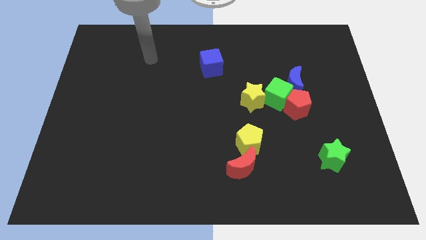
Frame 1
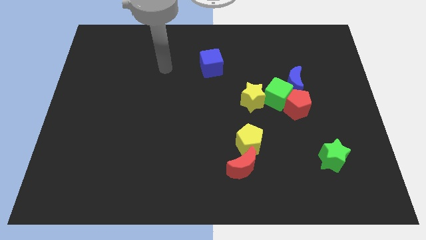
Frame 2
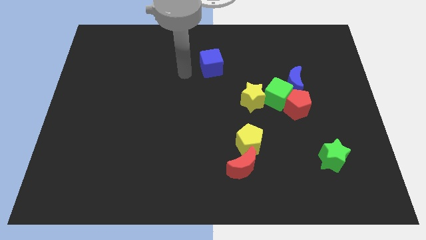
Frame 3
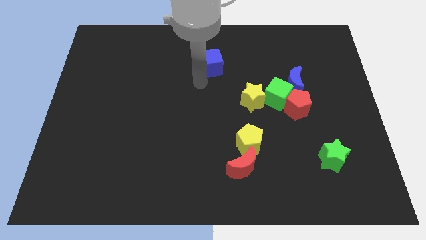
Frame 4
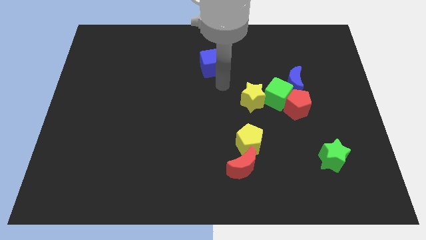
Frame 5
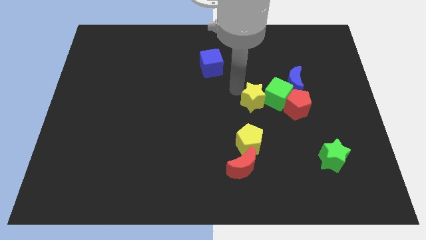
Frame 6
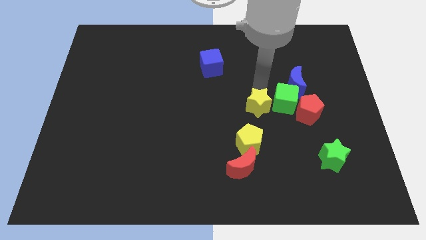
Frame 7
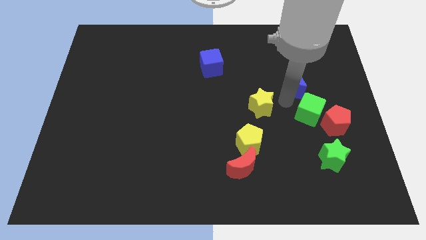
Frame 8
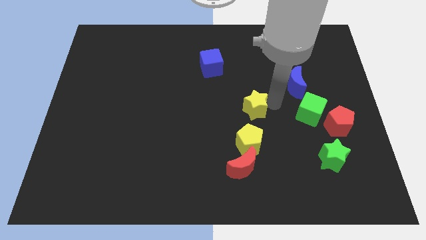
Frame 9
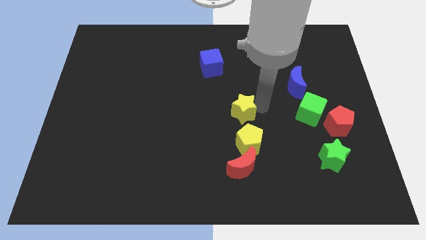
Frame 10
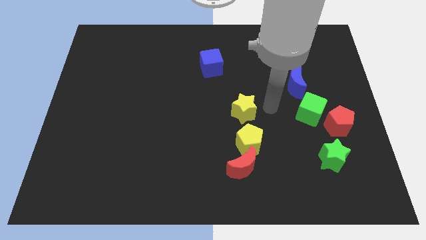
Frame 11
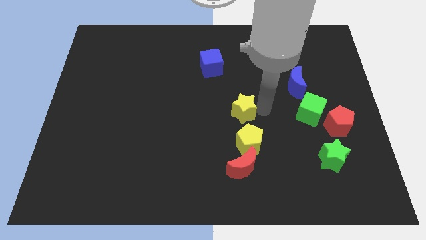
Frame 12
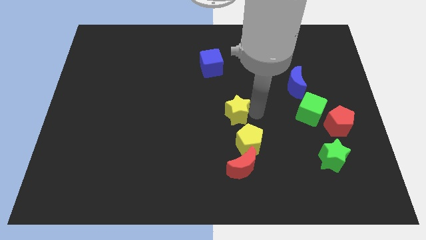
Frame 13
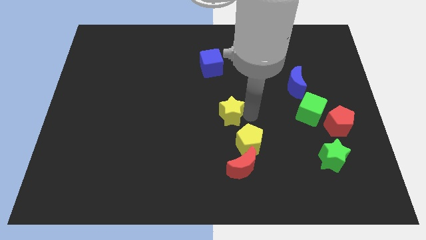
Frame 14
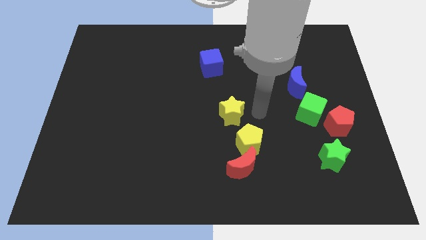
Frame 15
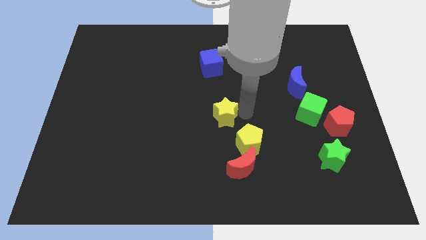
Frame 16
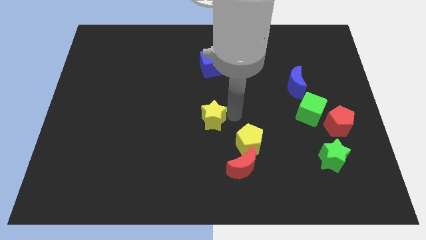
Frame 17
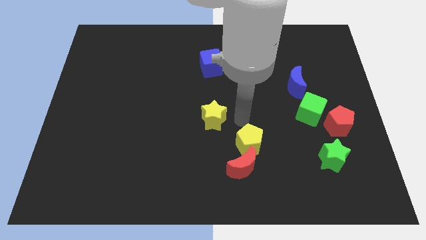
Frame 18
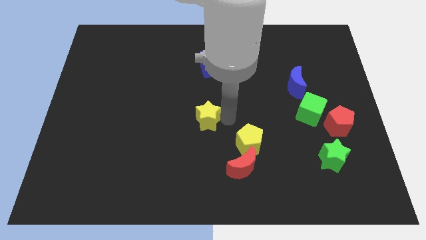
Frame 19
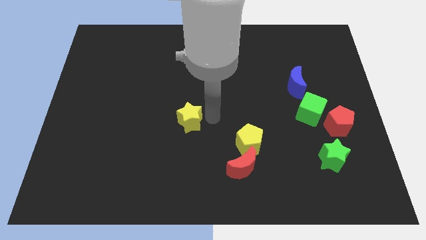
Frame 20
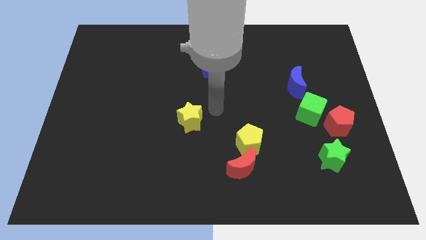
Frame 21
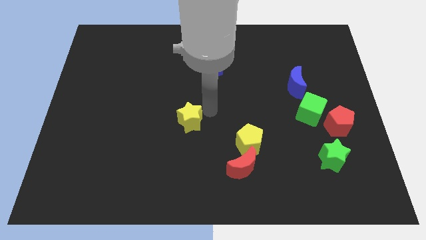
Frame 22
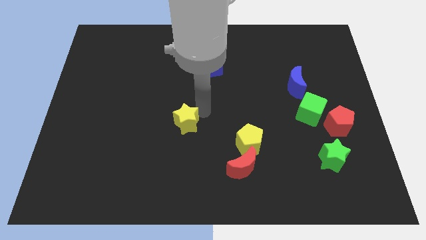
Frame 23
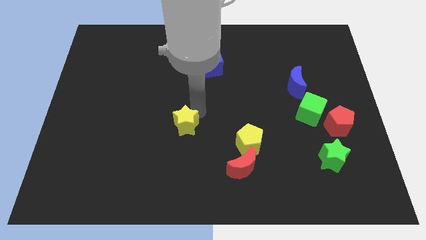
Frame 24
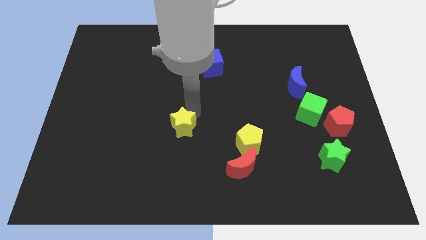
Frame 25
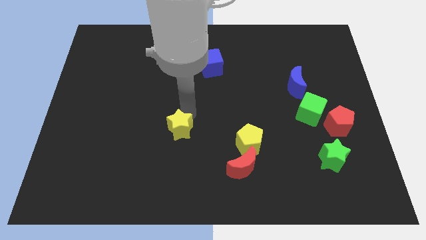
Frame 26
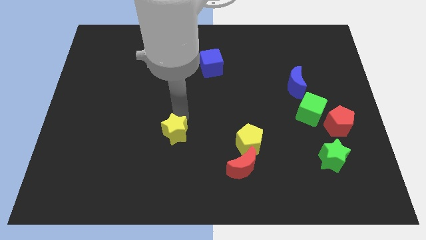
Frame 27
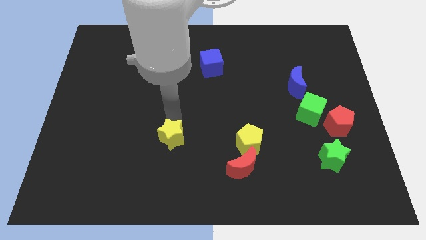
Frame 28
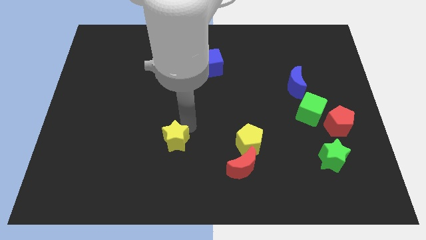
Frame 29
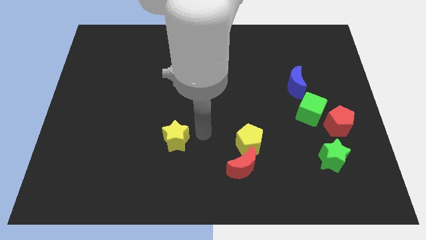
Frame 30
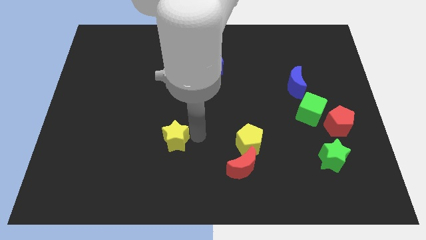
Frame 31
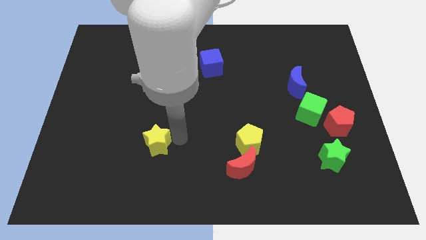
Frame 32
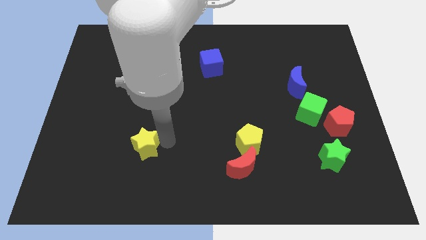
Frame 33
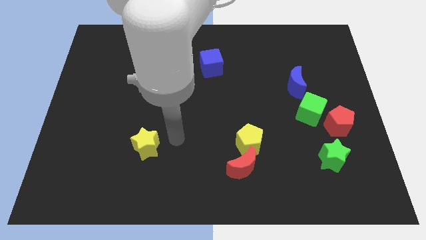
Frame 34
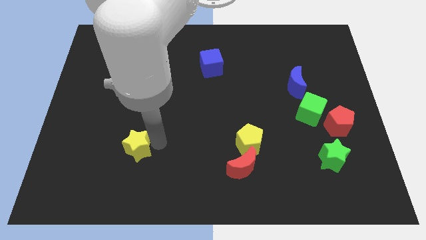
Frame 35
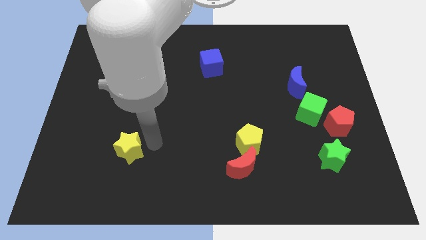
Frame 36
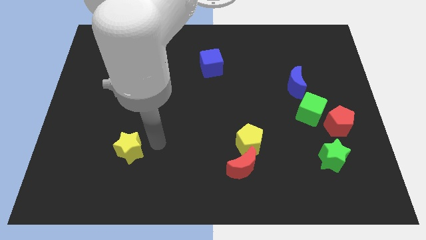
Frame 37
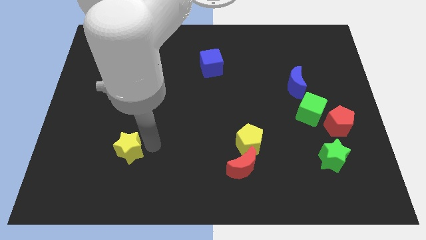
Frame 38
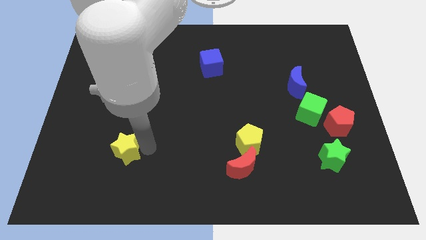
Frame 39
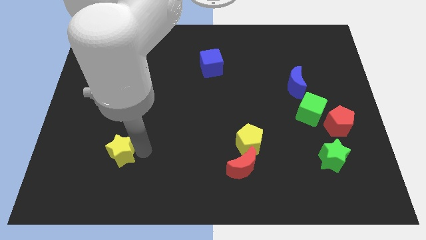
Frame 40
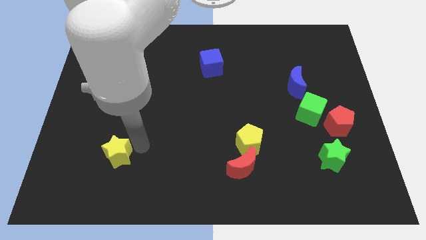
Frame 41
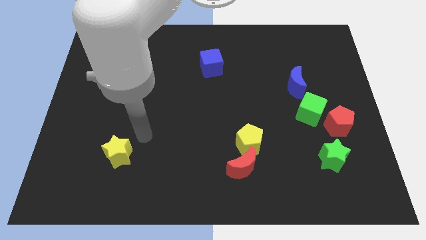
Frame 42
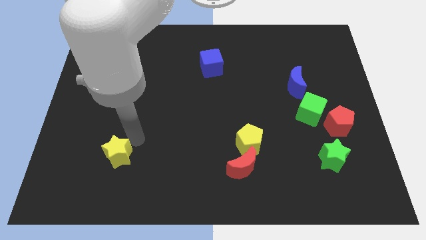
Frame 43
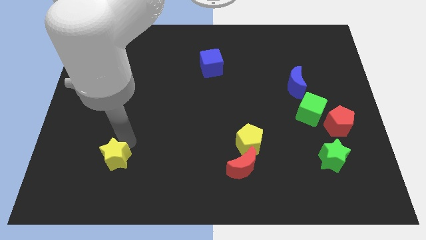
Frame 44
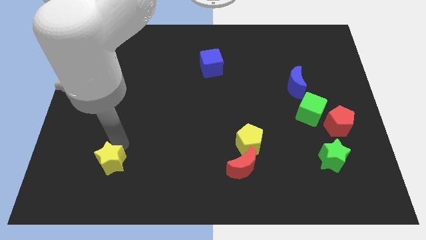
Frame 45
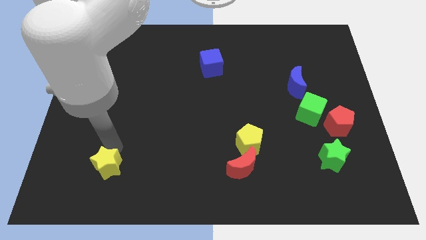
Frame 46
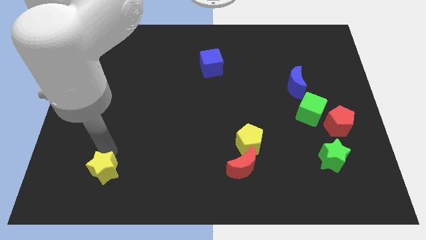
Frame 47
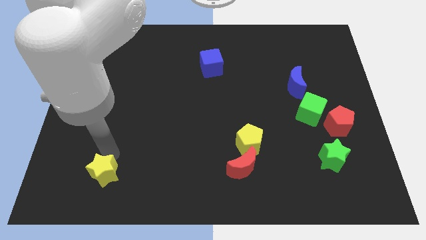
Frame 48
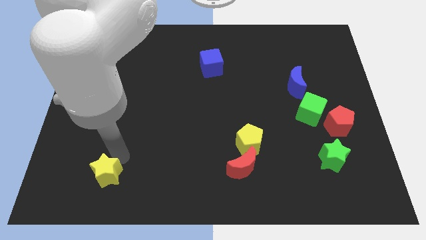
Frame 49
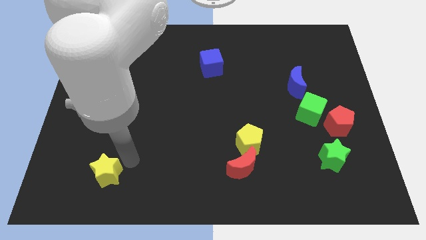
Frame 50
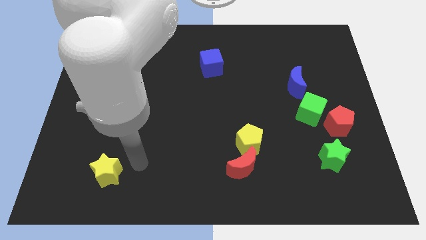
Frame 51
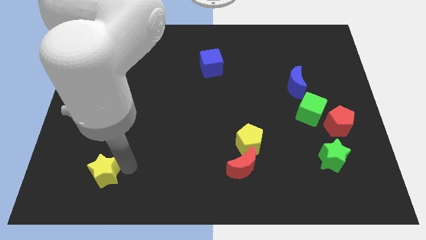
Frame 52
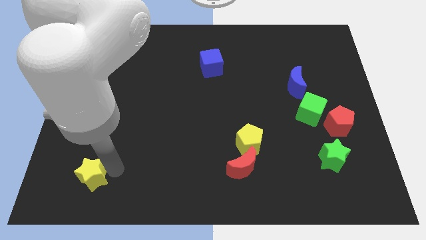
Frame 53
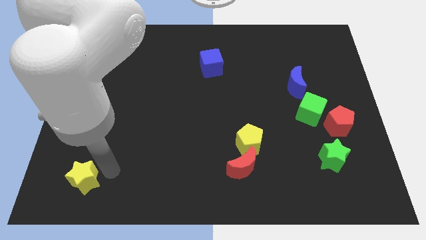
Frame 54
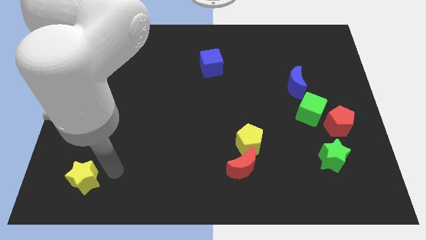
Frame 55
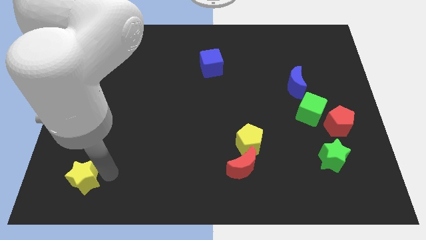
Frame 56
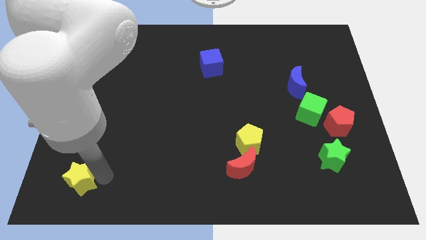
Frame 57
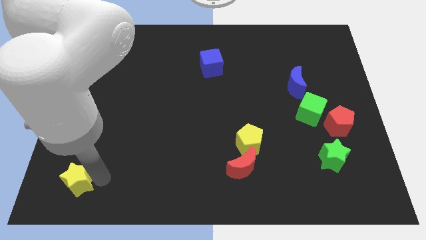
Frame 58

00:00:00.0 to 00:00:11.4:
push the yellow star to the bottom left corner

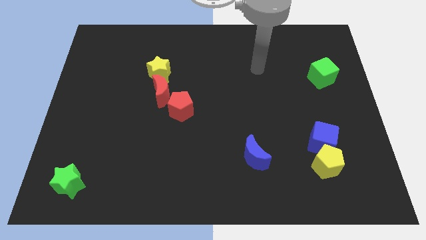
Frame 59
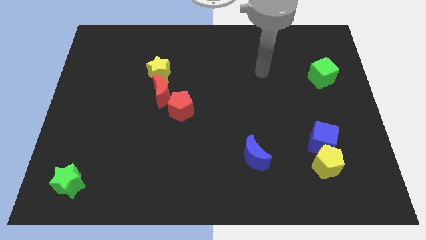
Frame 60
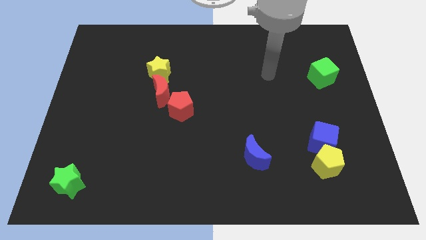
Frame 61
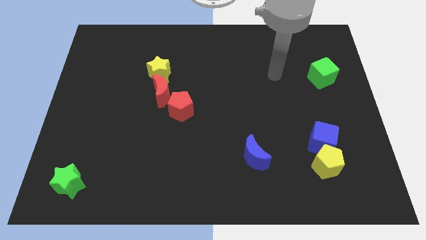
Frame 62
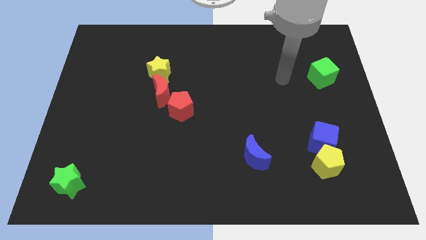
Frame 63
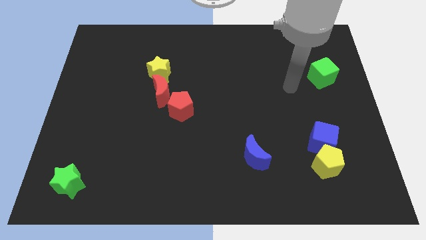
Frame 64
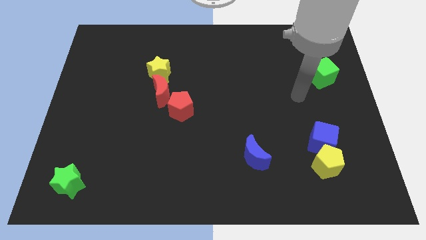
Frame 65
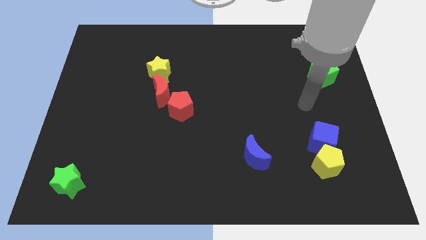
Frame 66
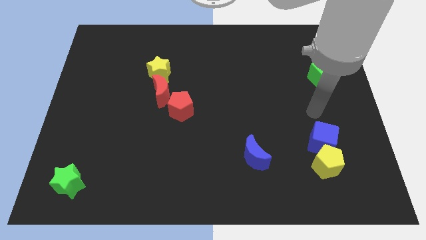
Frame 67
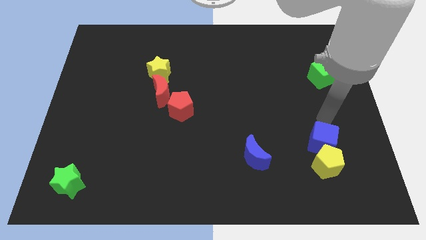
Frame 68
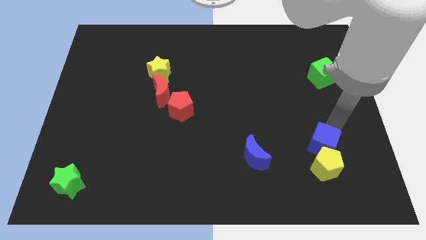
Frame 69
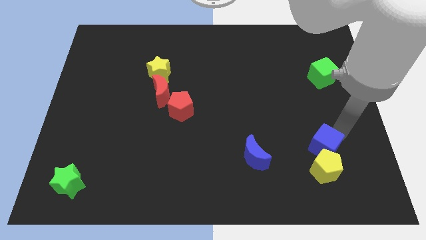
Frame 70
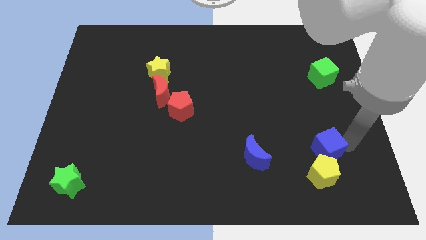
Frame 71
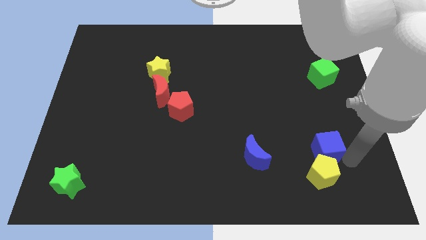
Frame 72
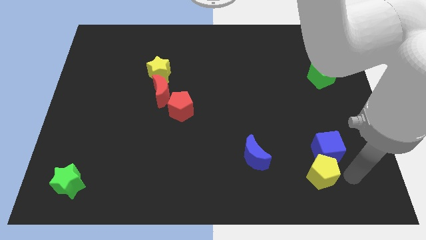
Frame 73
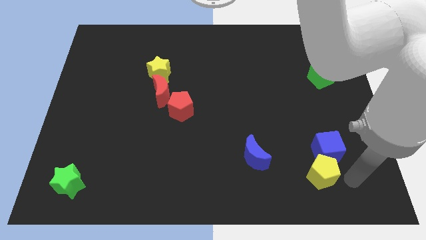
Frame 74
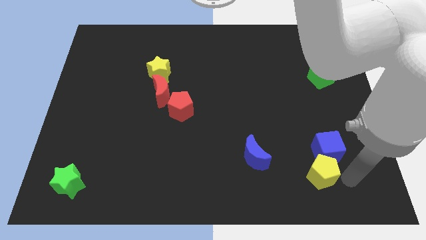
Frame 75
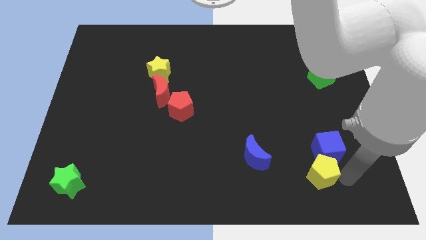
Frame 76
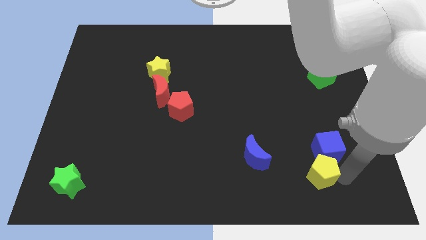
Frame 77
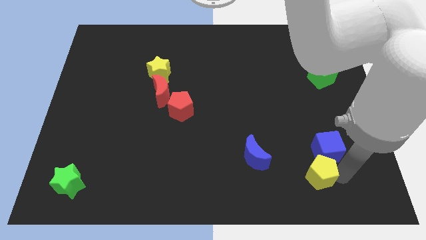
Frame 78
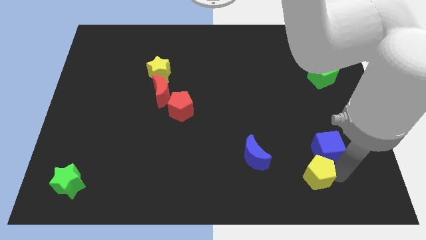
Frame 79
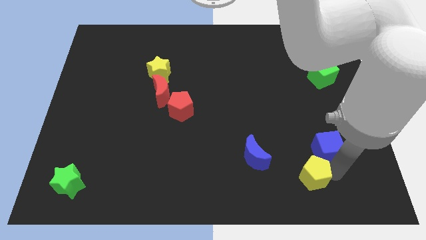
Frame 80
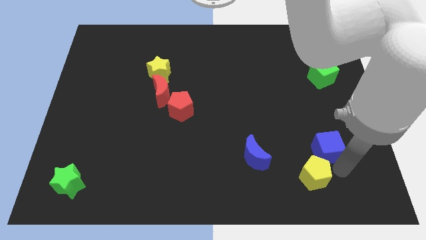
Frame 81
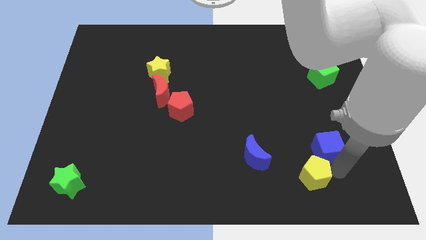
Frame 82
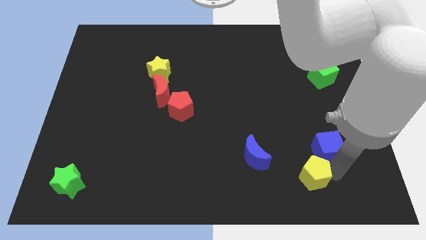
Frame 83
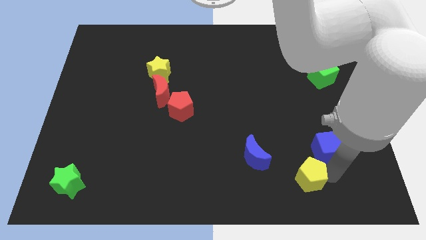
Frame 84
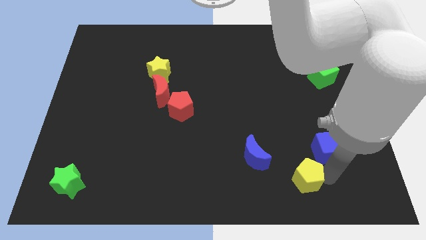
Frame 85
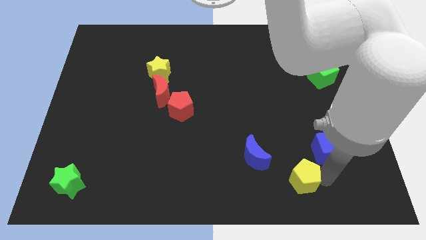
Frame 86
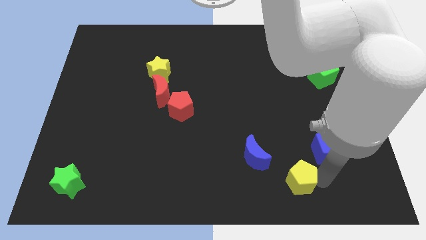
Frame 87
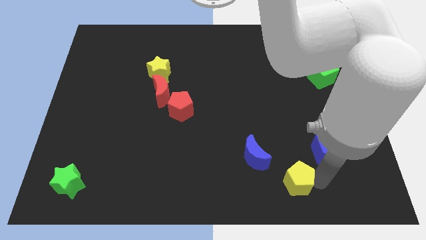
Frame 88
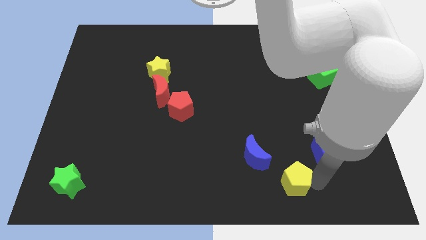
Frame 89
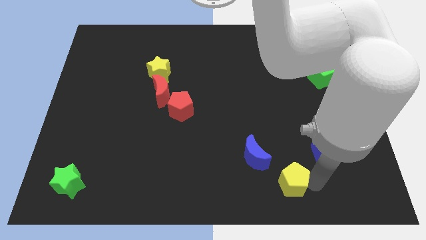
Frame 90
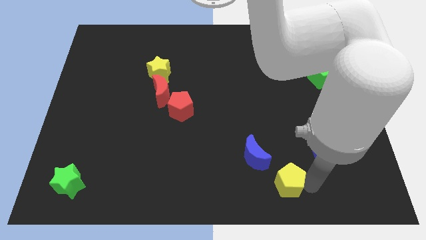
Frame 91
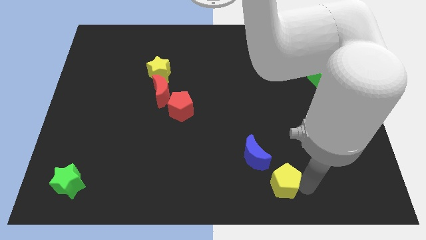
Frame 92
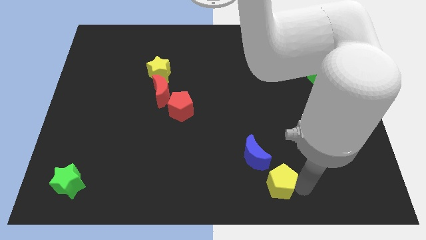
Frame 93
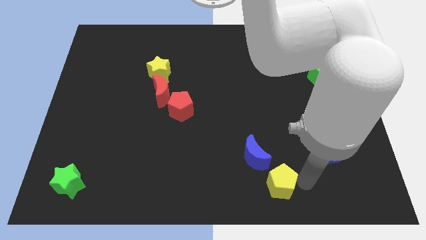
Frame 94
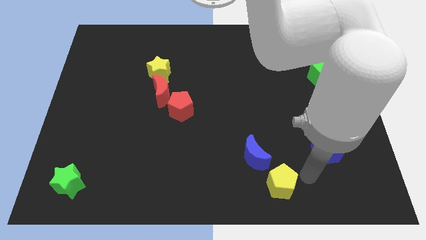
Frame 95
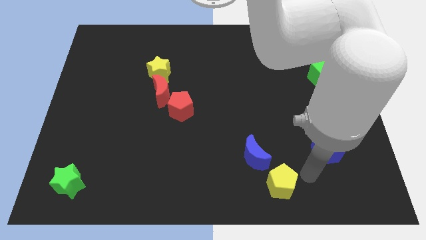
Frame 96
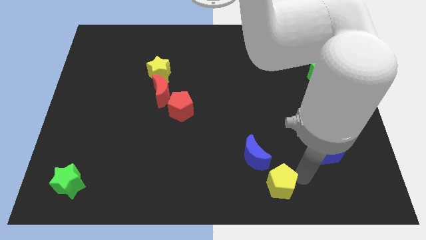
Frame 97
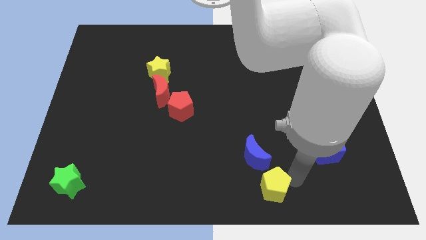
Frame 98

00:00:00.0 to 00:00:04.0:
put the yellow pentagon to the bottom
